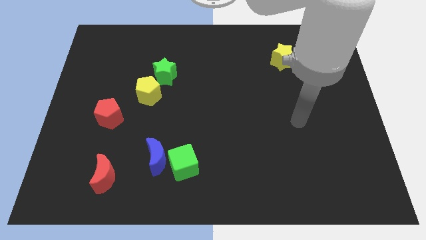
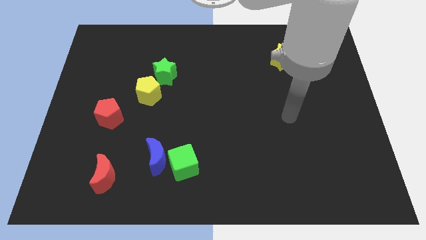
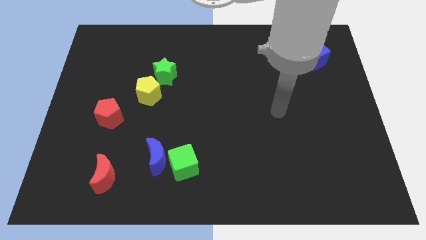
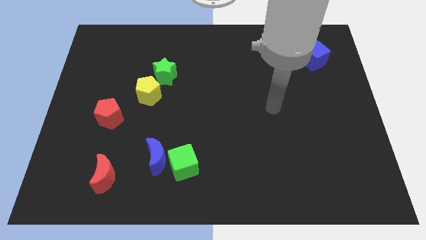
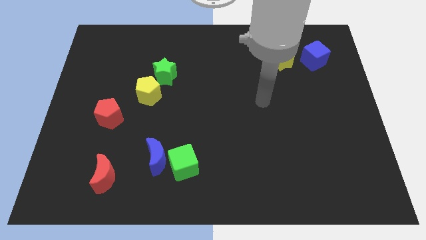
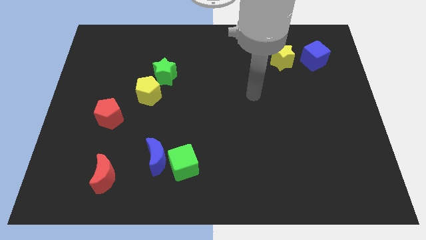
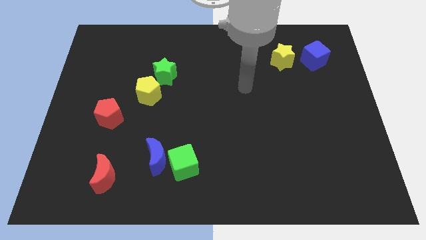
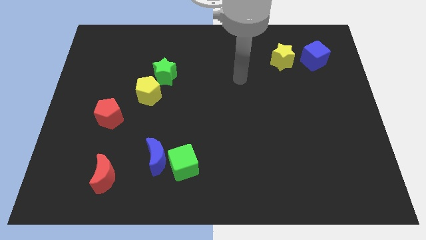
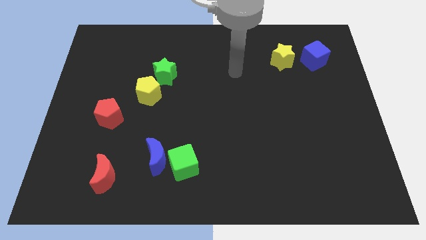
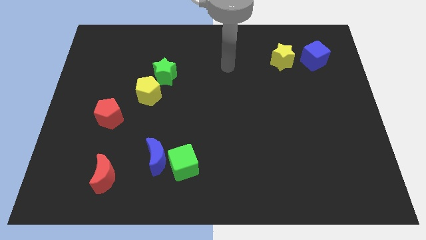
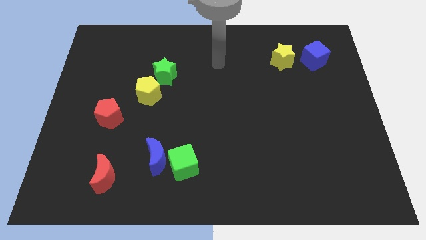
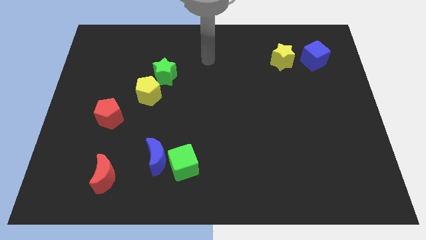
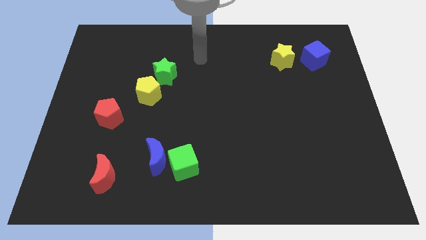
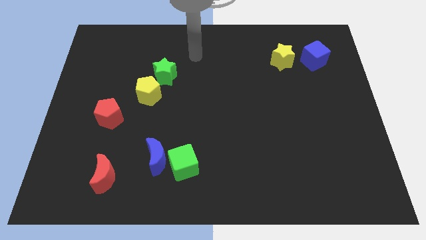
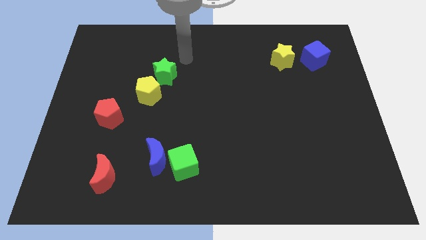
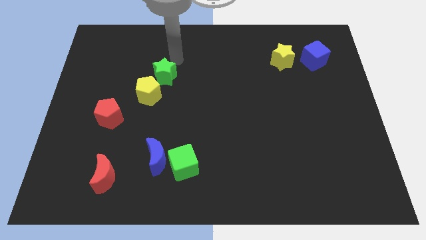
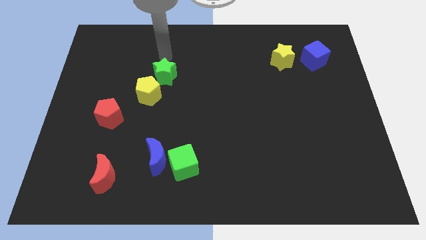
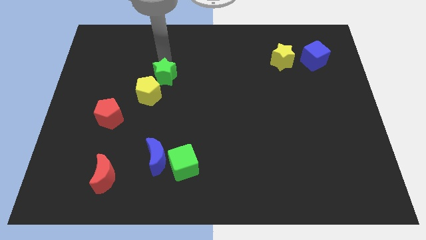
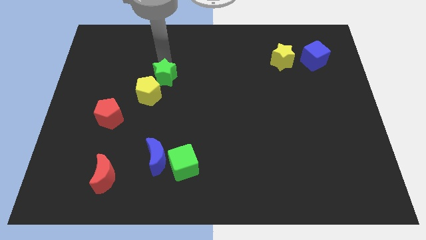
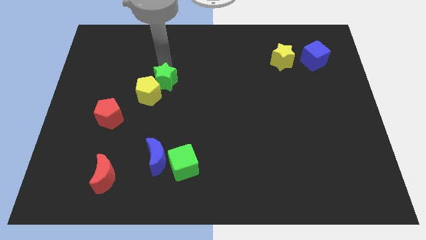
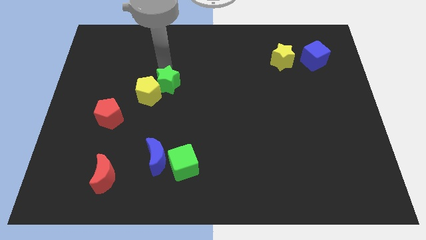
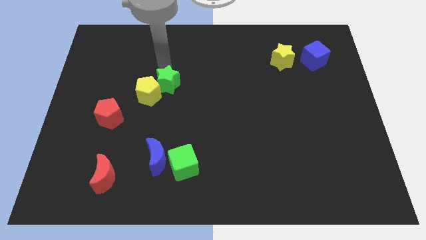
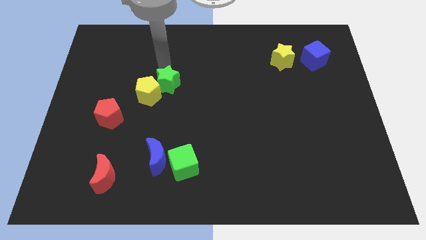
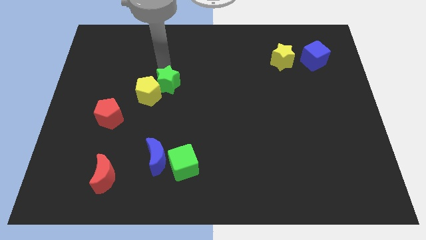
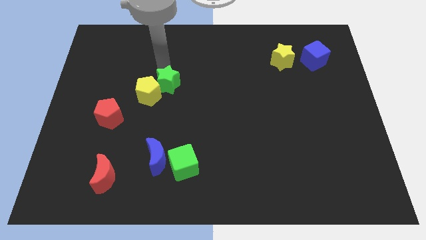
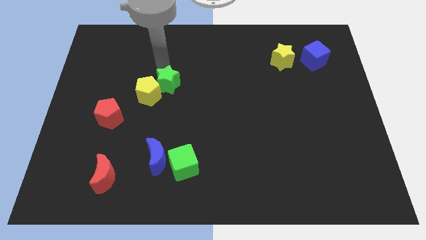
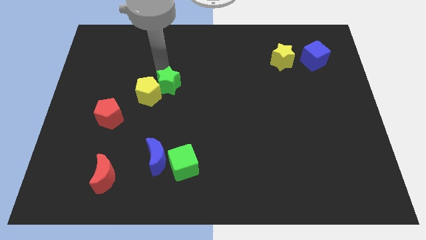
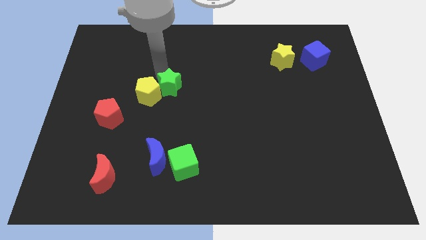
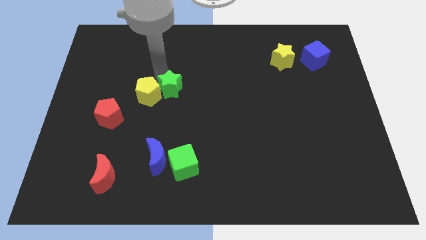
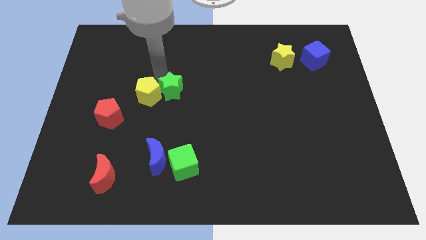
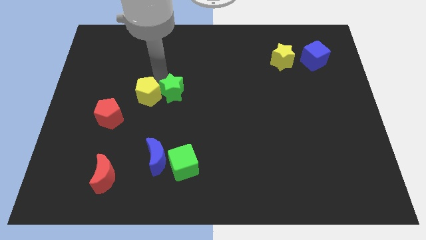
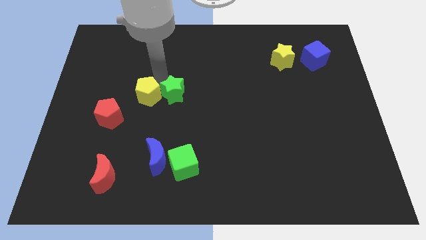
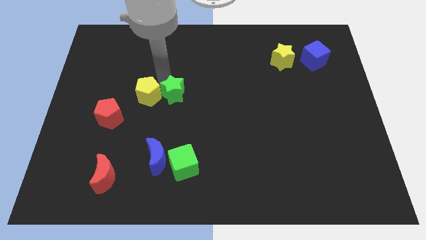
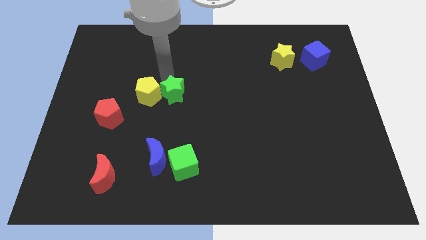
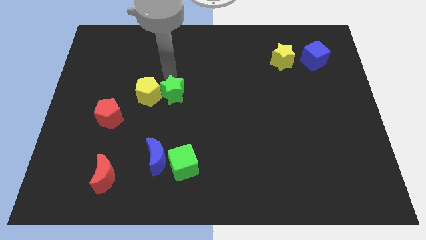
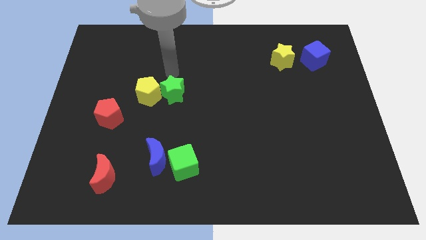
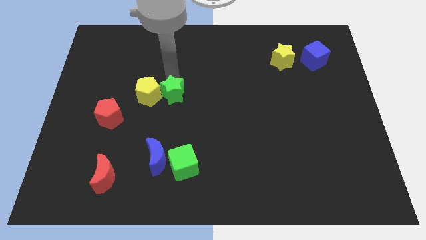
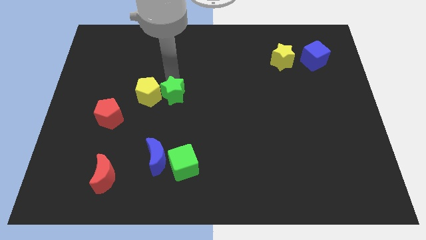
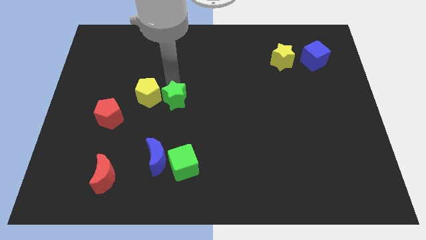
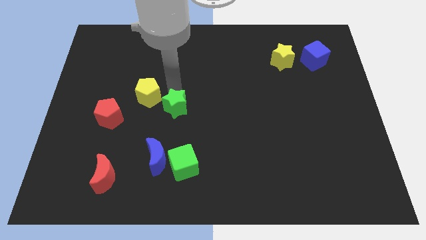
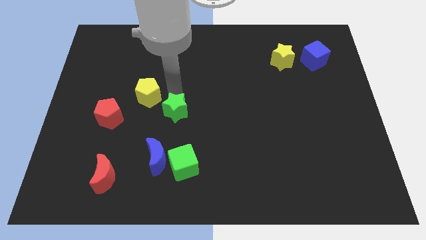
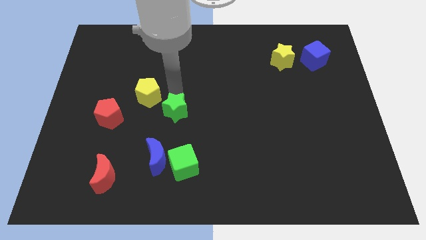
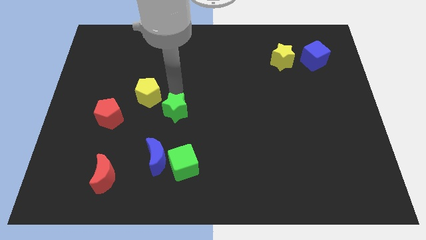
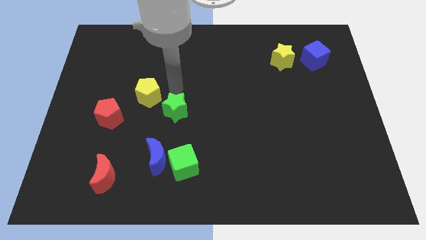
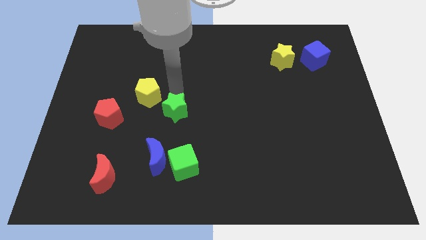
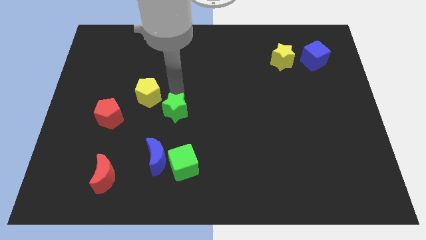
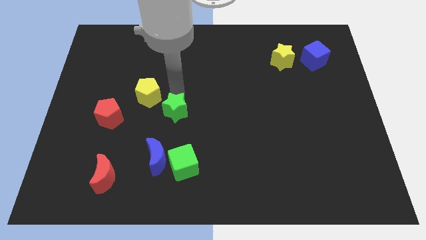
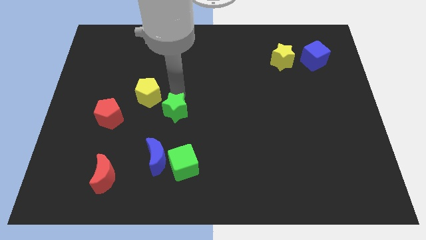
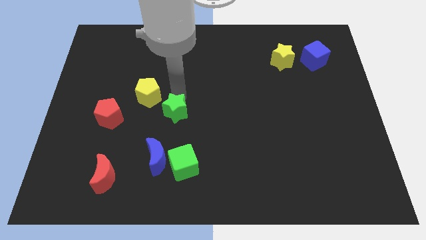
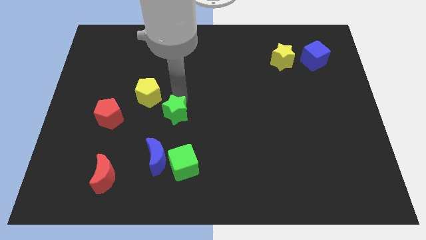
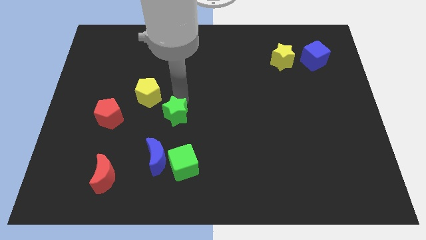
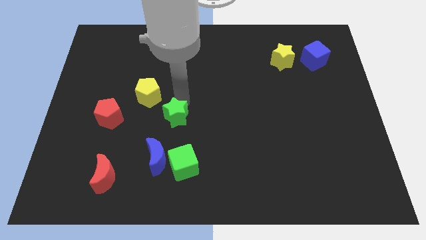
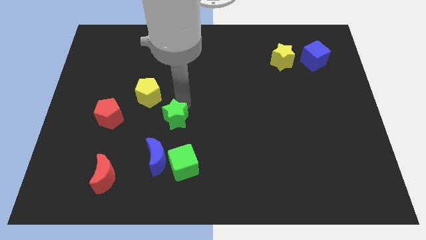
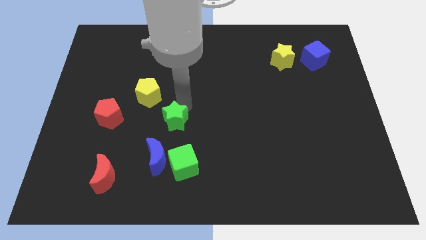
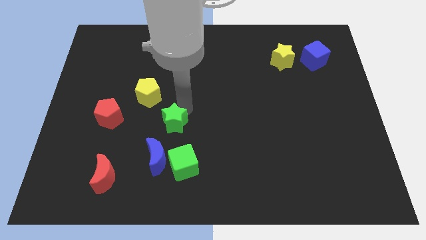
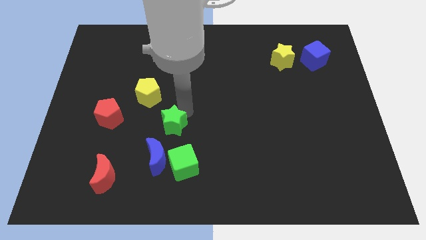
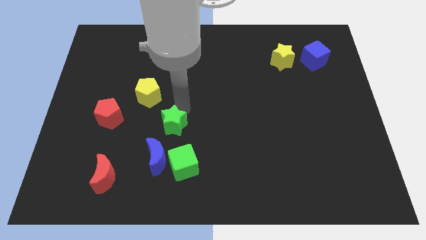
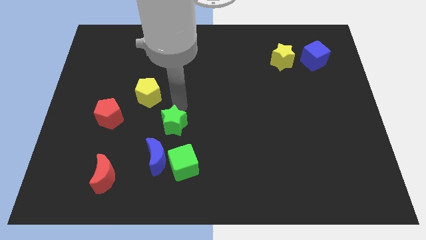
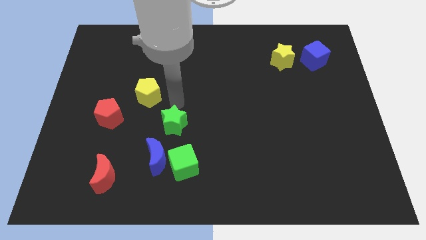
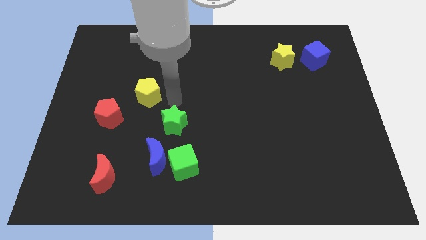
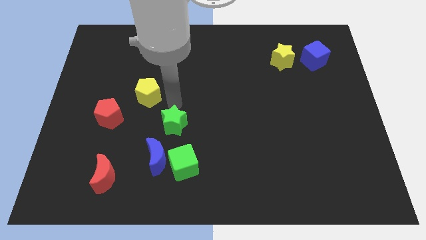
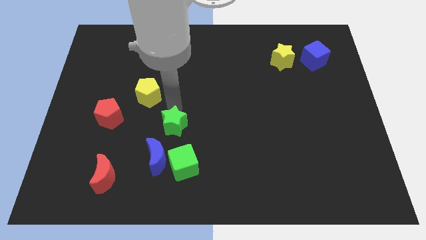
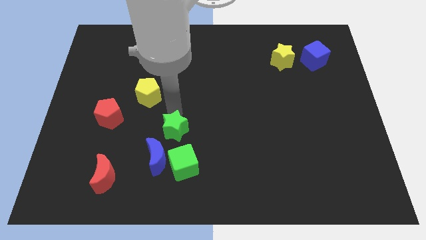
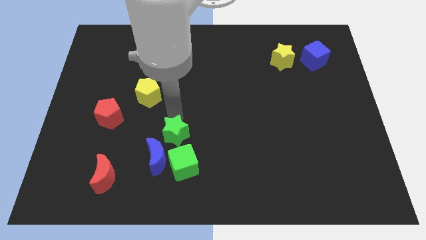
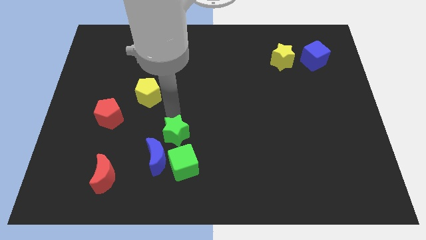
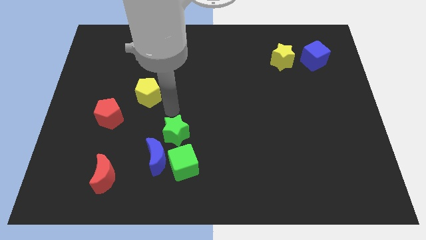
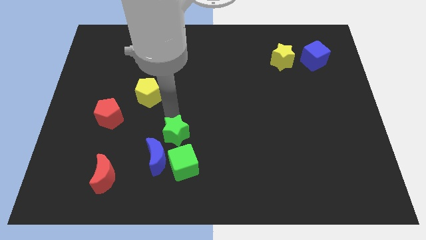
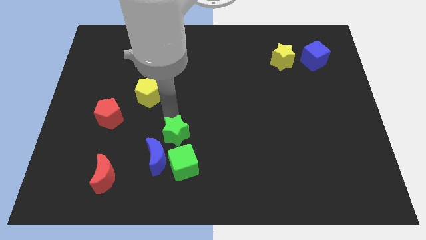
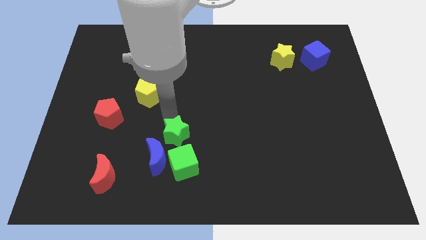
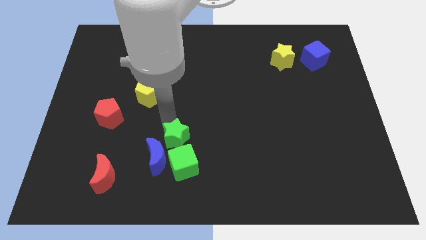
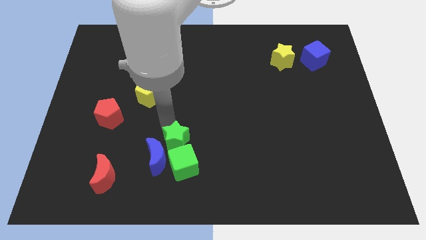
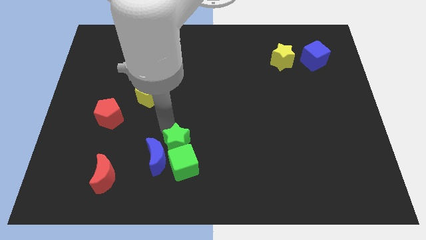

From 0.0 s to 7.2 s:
move the green star close to the green cube
